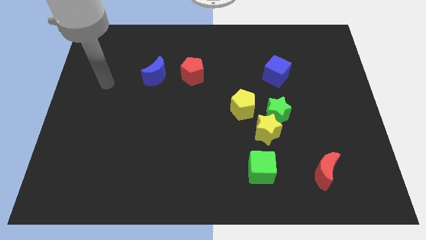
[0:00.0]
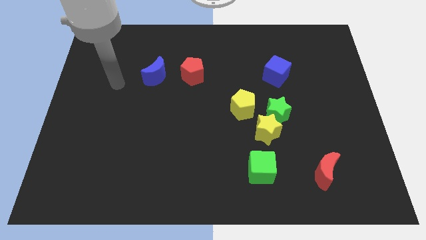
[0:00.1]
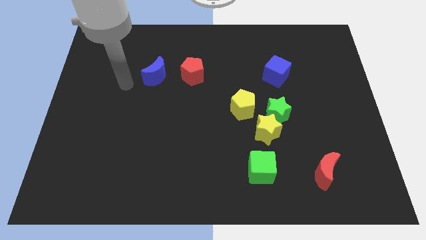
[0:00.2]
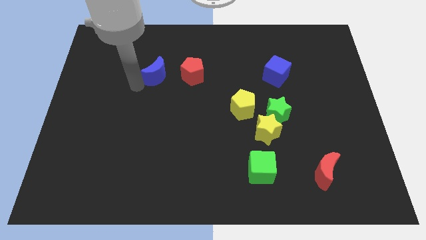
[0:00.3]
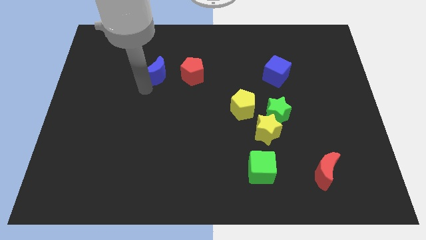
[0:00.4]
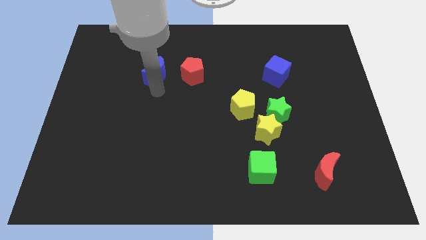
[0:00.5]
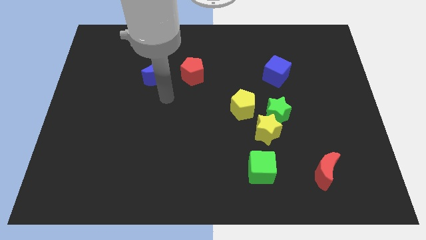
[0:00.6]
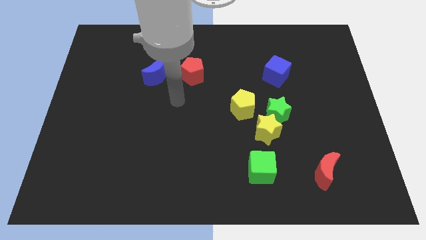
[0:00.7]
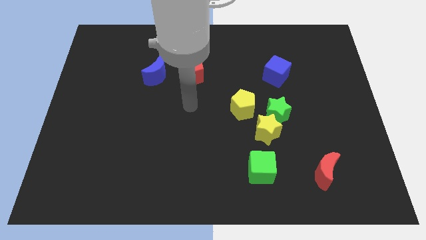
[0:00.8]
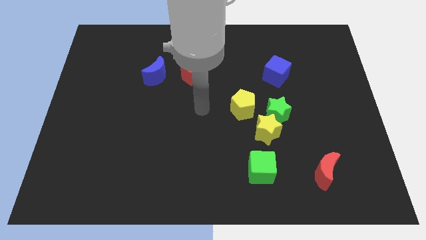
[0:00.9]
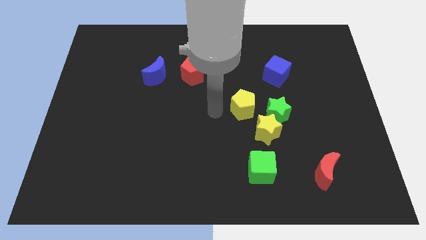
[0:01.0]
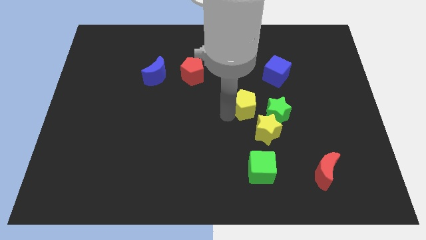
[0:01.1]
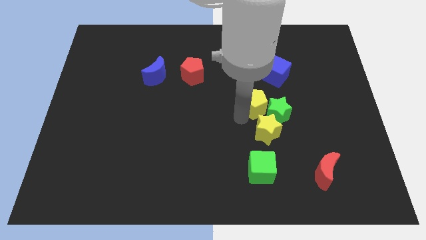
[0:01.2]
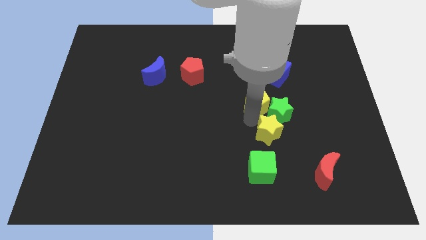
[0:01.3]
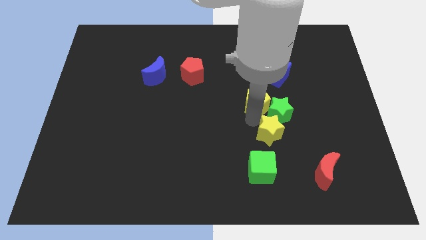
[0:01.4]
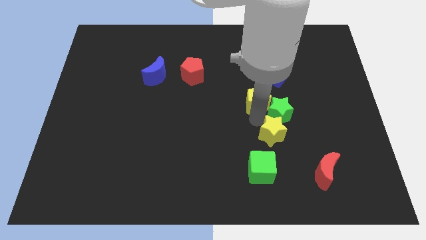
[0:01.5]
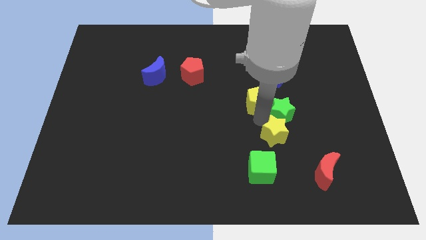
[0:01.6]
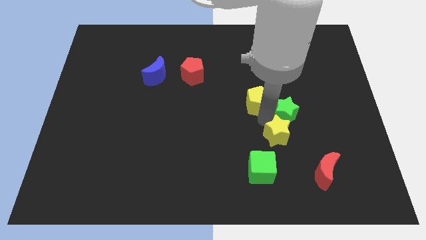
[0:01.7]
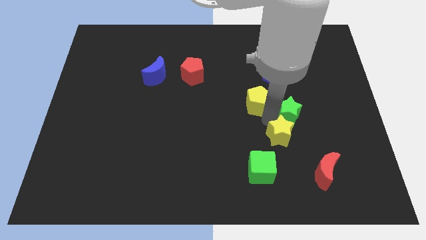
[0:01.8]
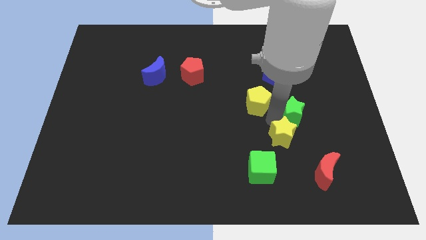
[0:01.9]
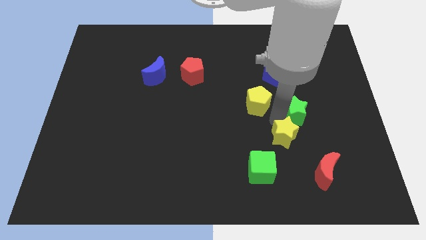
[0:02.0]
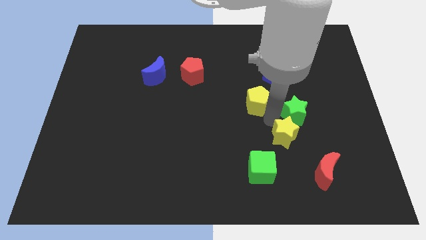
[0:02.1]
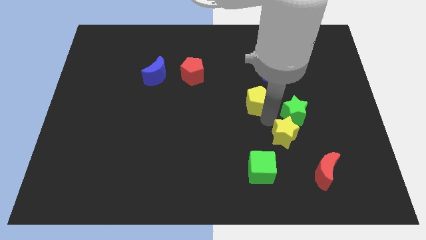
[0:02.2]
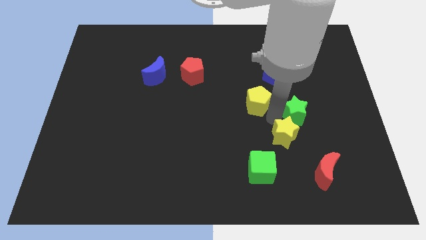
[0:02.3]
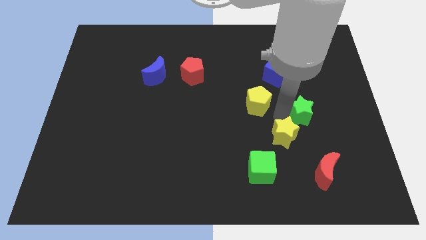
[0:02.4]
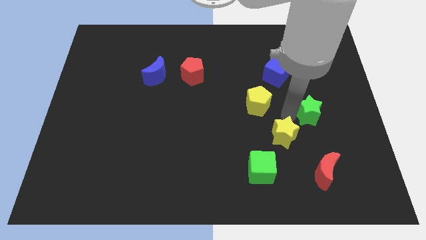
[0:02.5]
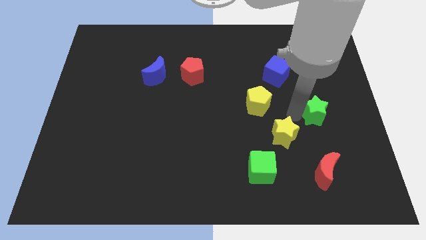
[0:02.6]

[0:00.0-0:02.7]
separate the green star from the yellow star and yellow pentagon

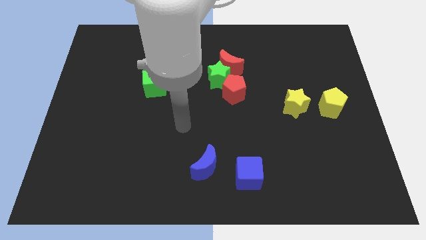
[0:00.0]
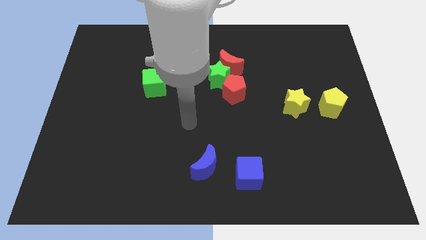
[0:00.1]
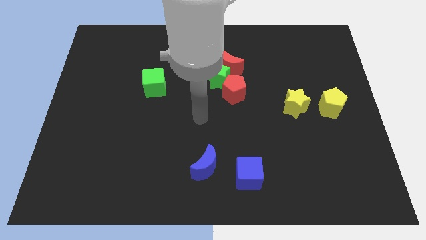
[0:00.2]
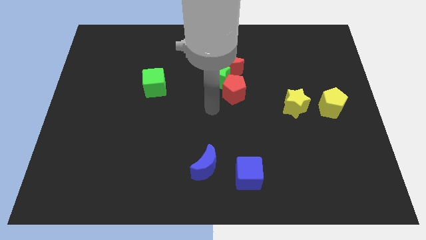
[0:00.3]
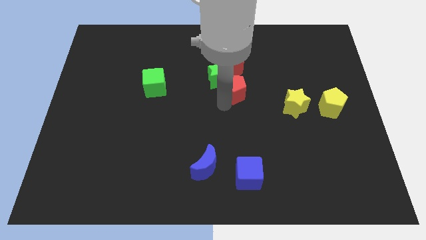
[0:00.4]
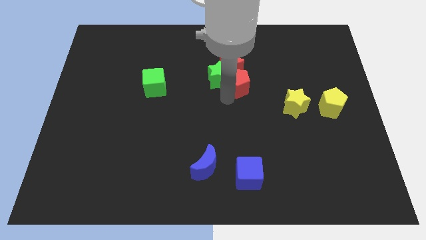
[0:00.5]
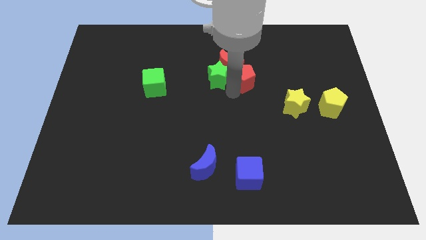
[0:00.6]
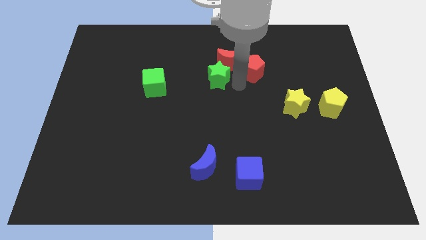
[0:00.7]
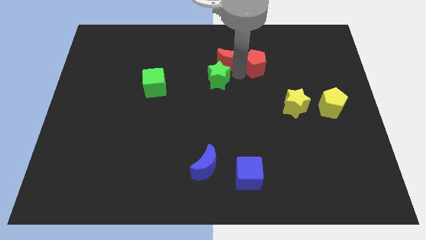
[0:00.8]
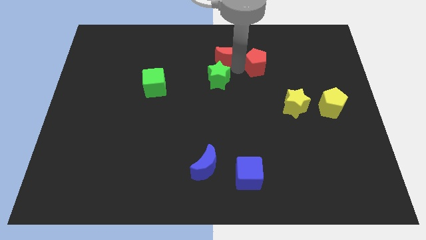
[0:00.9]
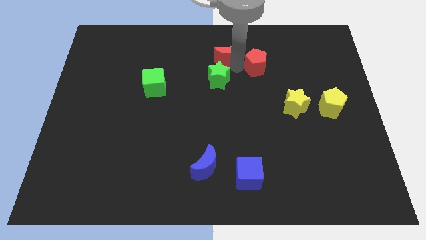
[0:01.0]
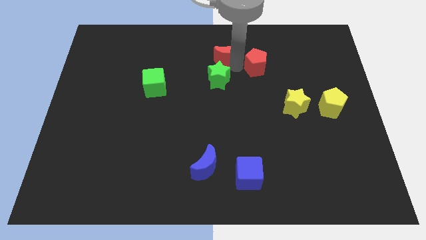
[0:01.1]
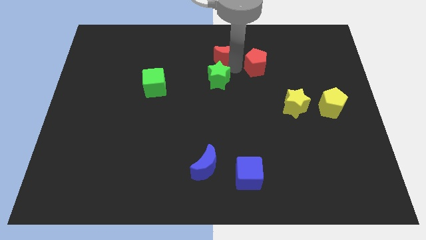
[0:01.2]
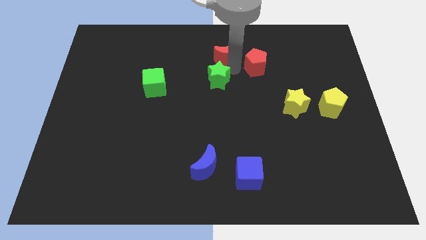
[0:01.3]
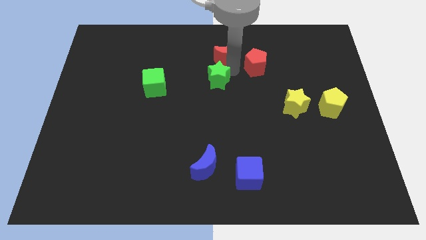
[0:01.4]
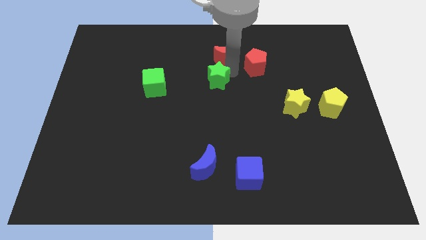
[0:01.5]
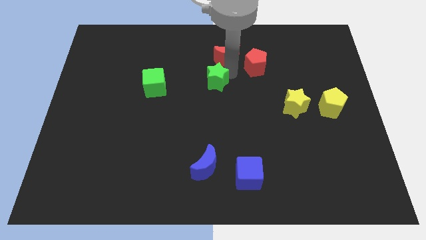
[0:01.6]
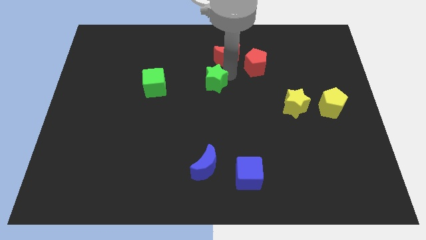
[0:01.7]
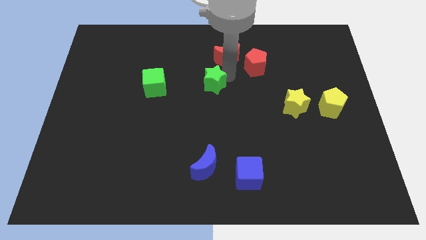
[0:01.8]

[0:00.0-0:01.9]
move the green star away from the red moon and red pentagon

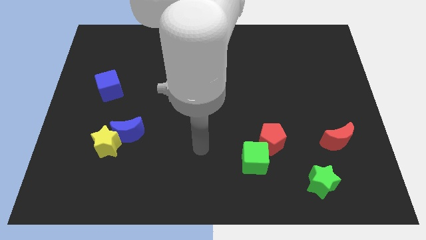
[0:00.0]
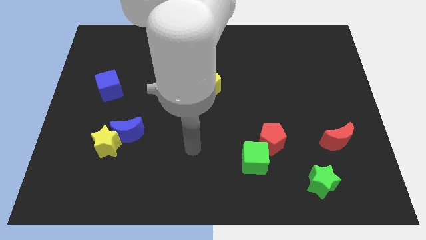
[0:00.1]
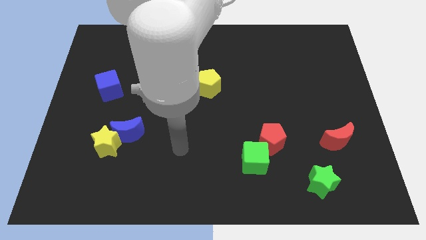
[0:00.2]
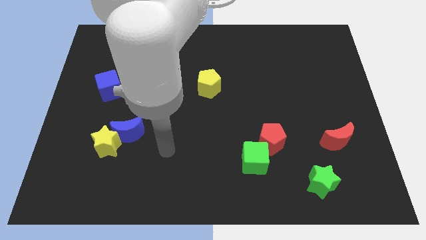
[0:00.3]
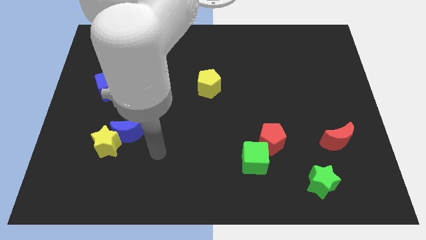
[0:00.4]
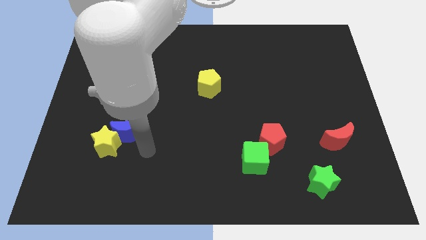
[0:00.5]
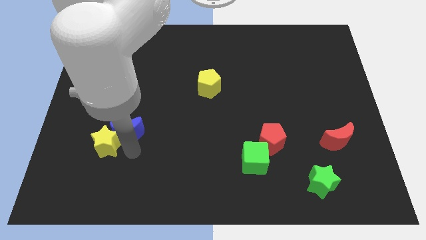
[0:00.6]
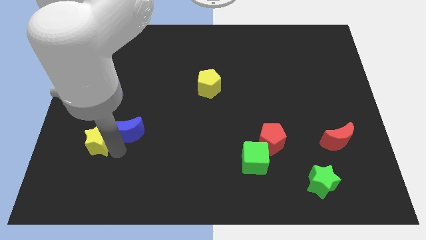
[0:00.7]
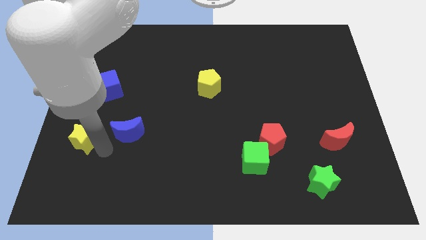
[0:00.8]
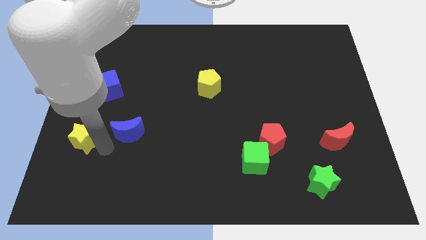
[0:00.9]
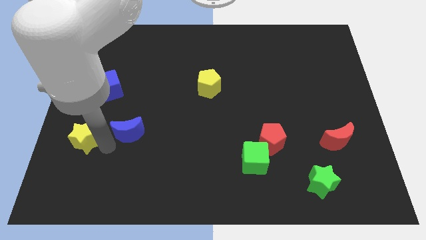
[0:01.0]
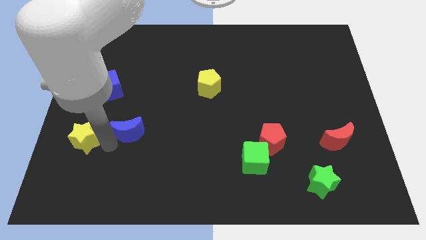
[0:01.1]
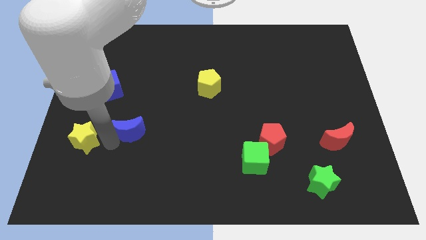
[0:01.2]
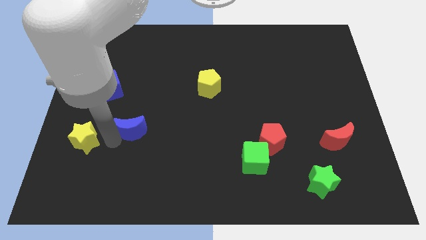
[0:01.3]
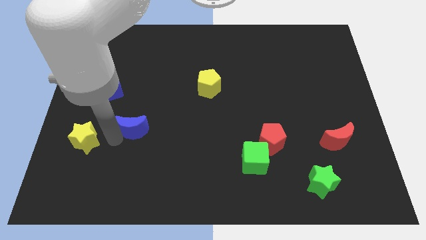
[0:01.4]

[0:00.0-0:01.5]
separate the blue moon from the yellow star

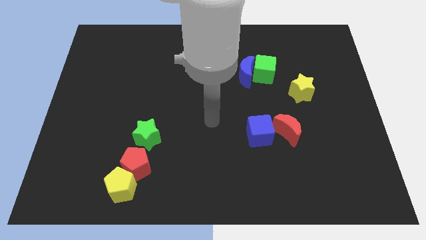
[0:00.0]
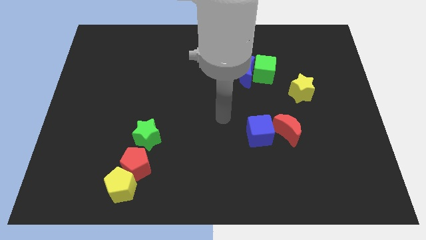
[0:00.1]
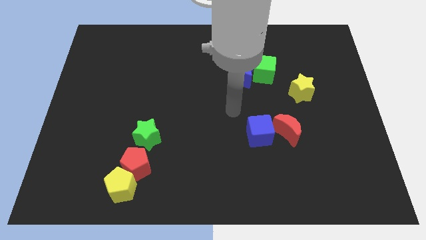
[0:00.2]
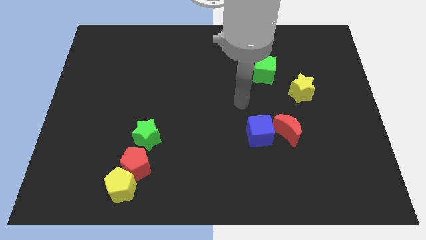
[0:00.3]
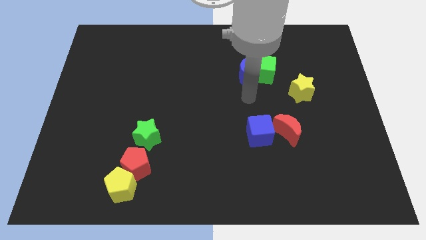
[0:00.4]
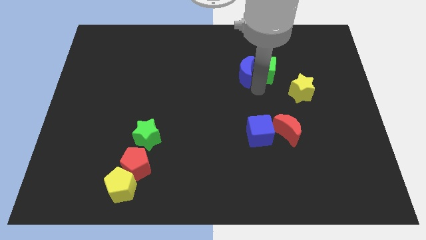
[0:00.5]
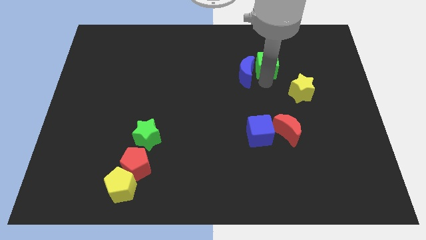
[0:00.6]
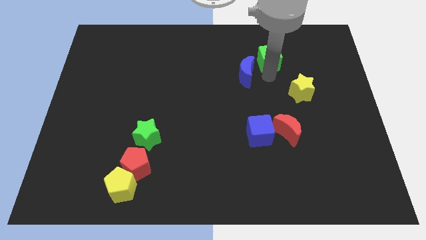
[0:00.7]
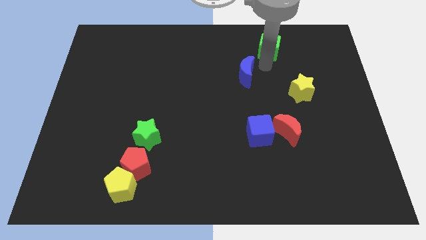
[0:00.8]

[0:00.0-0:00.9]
pull the blue moon apart from the green cube

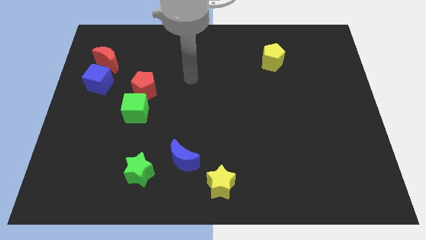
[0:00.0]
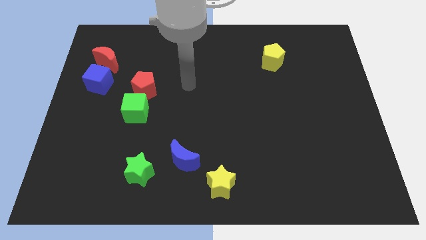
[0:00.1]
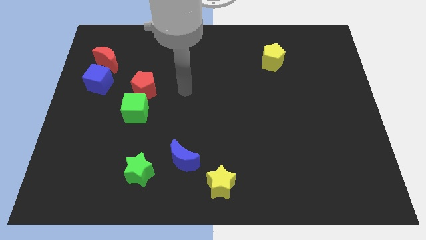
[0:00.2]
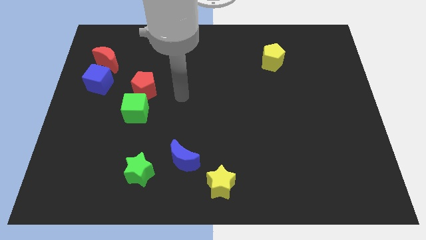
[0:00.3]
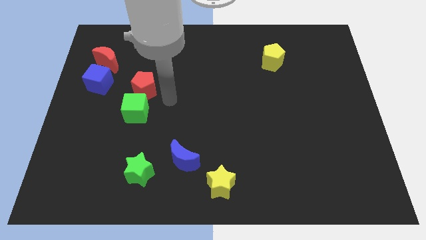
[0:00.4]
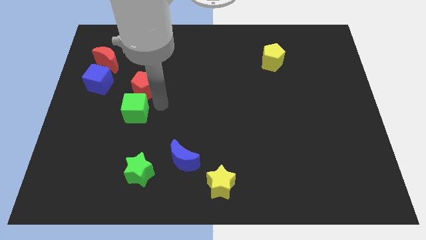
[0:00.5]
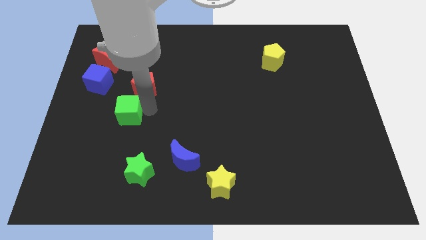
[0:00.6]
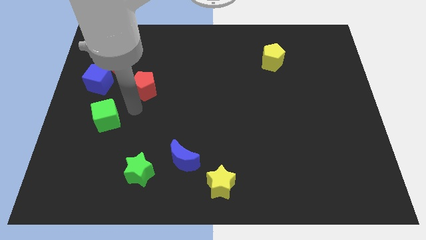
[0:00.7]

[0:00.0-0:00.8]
pull the red pentagon apart from the green cube

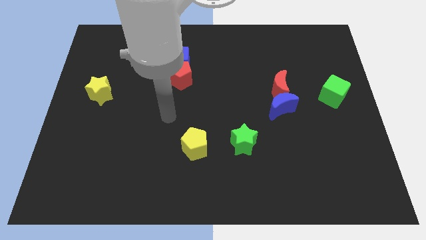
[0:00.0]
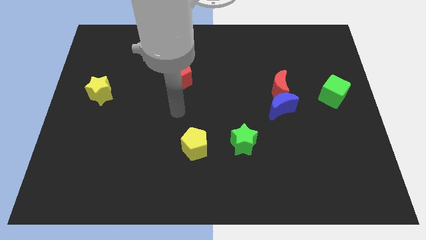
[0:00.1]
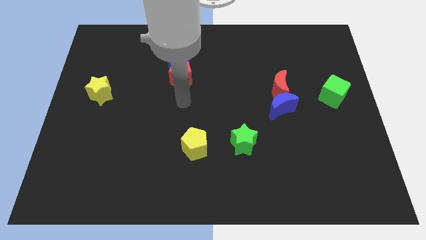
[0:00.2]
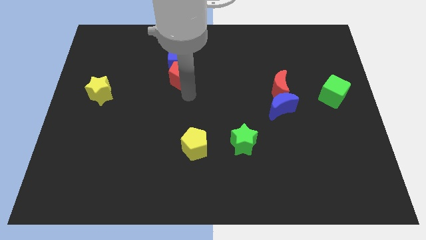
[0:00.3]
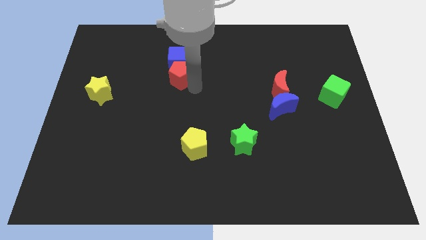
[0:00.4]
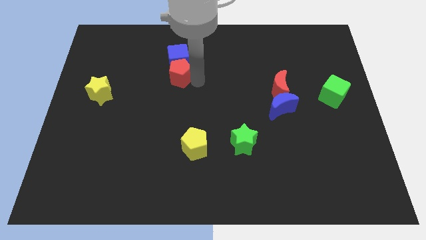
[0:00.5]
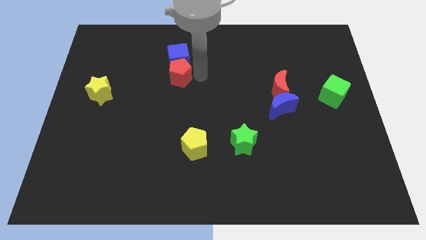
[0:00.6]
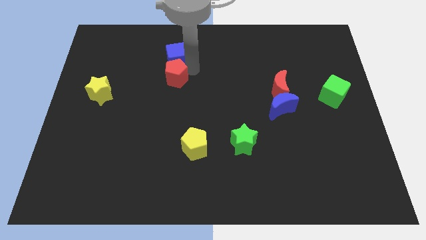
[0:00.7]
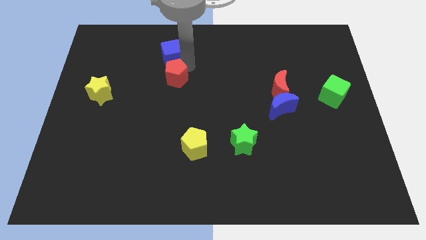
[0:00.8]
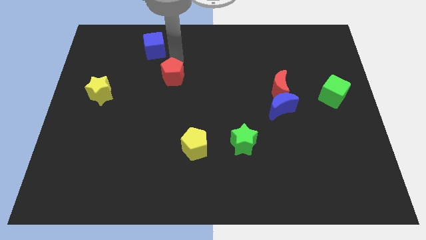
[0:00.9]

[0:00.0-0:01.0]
separate the red pentagon from the blue cube

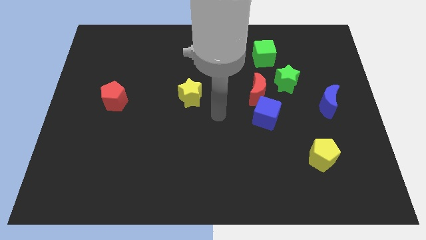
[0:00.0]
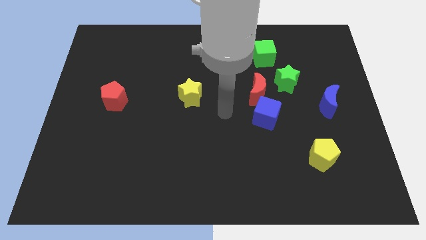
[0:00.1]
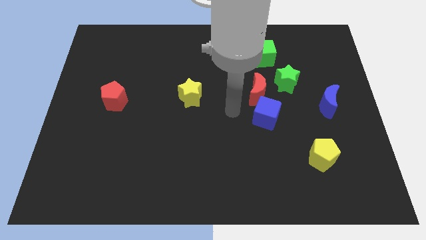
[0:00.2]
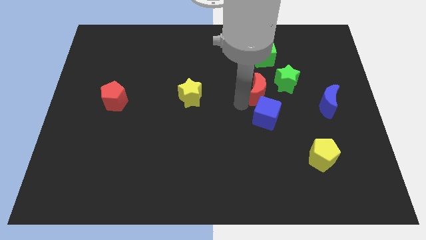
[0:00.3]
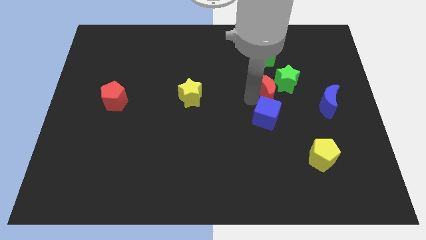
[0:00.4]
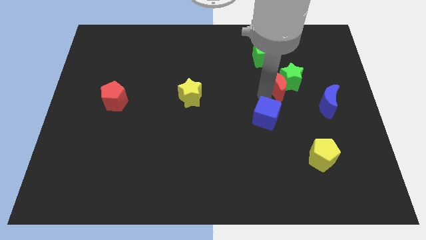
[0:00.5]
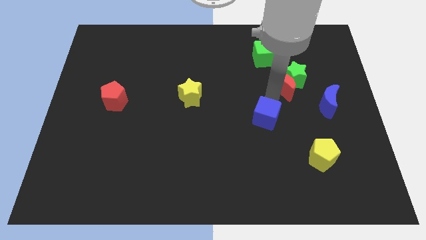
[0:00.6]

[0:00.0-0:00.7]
move the blue cube away from the red moon
